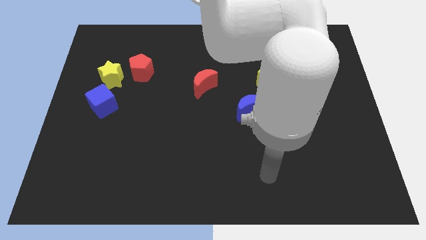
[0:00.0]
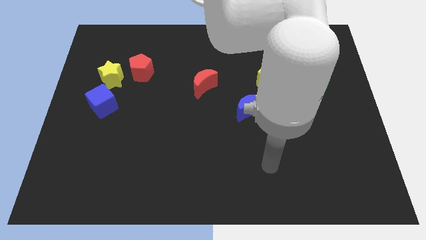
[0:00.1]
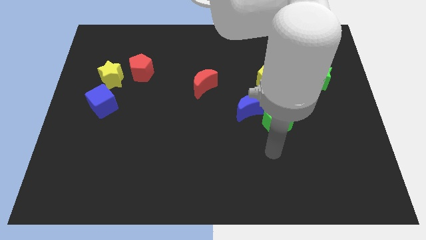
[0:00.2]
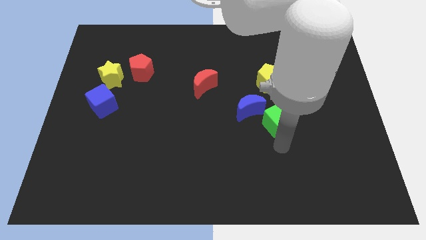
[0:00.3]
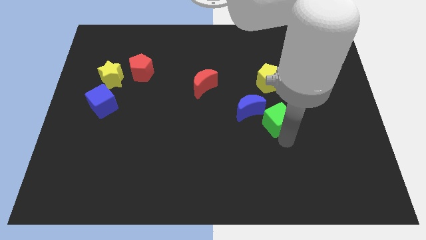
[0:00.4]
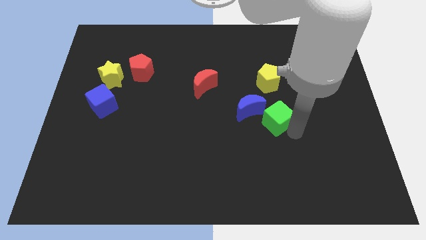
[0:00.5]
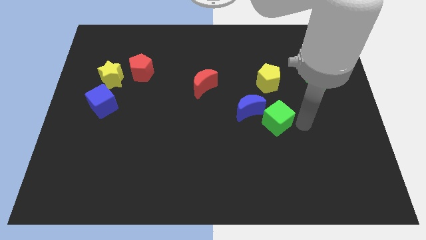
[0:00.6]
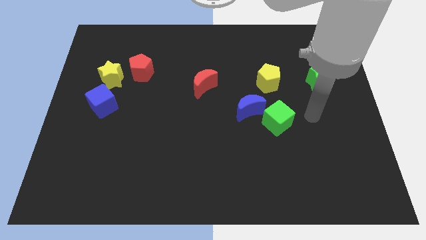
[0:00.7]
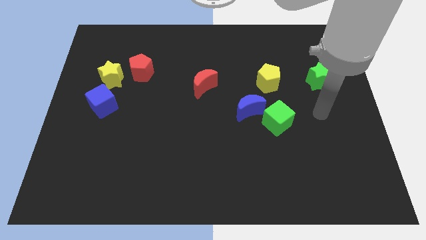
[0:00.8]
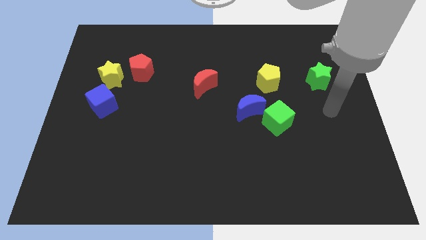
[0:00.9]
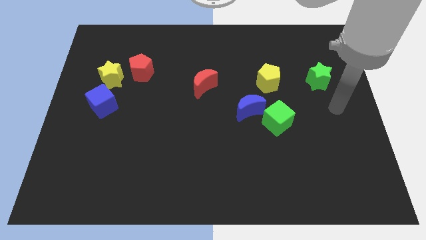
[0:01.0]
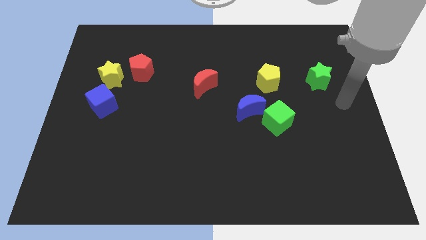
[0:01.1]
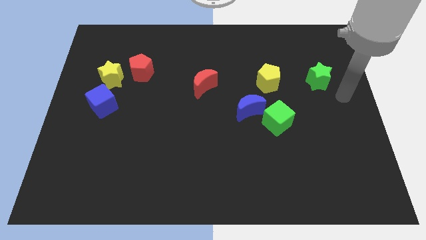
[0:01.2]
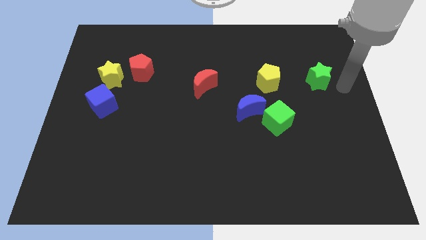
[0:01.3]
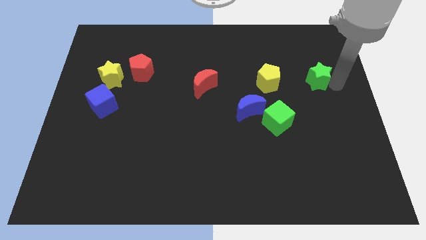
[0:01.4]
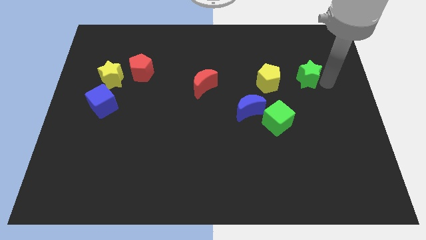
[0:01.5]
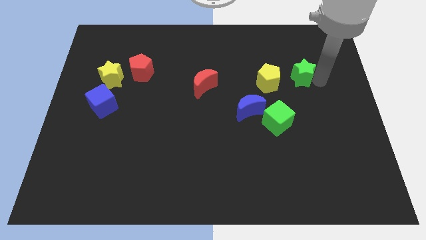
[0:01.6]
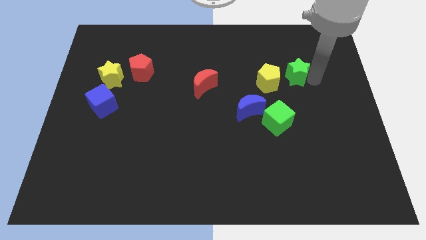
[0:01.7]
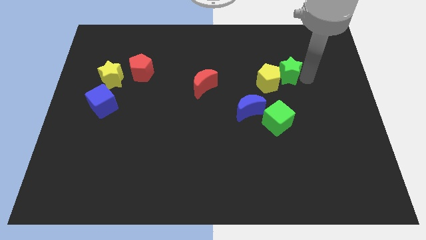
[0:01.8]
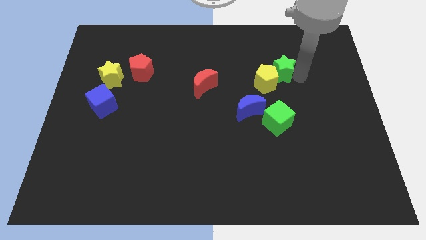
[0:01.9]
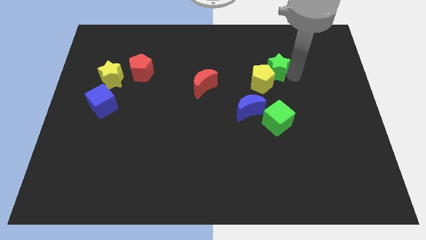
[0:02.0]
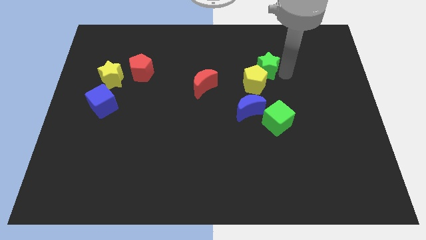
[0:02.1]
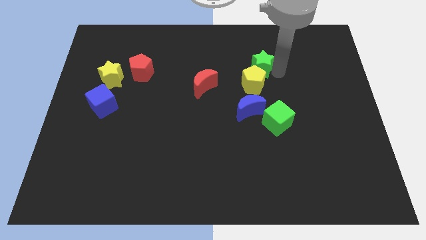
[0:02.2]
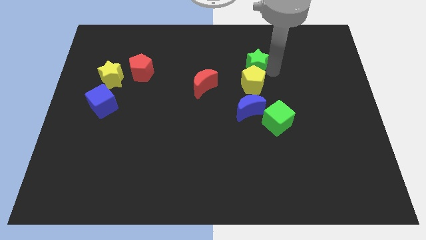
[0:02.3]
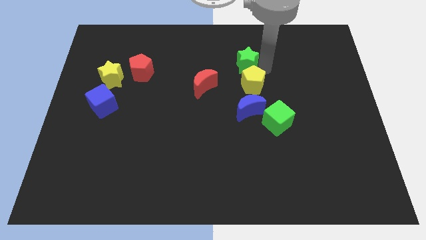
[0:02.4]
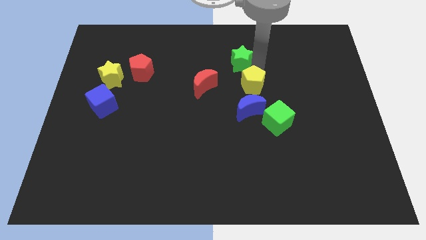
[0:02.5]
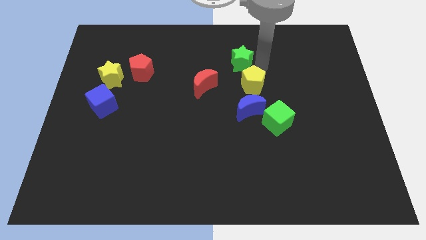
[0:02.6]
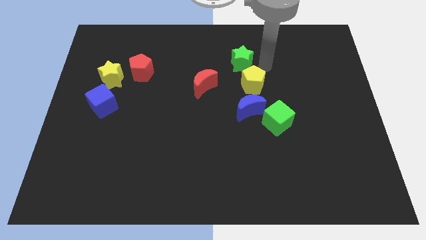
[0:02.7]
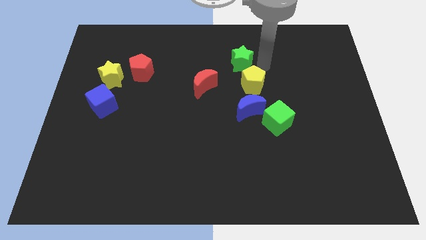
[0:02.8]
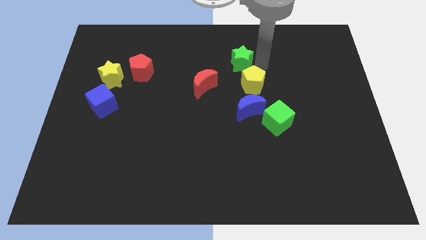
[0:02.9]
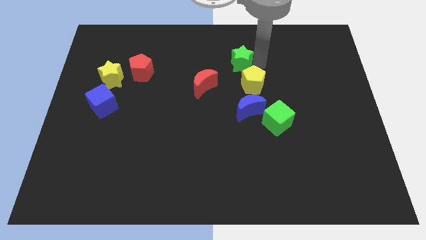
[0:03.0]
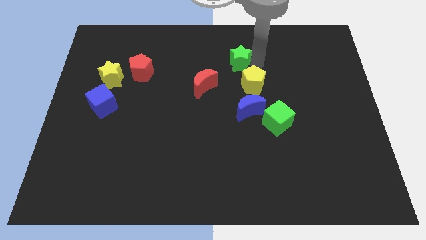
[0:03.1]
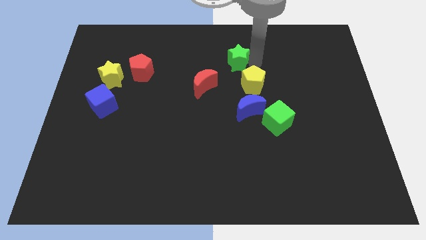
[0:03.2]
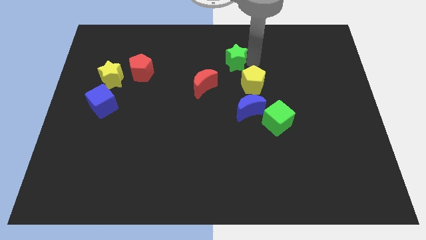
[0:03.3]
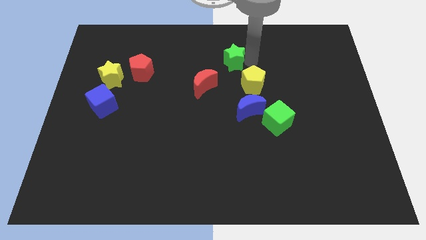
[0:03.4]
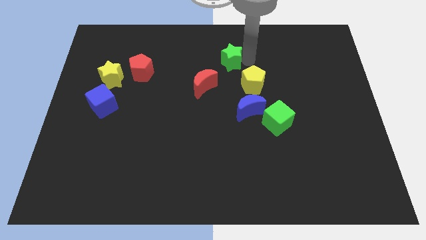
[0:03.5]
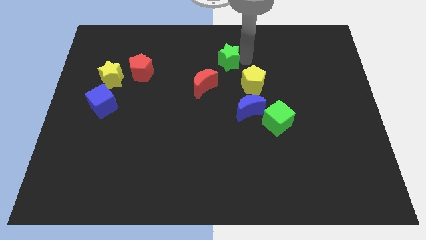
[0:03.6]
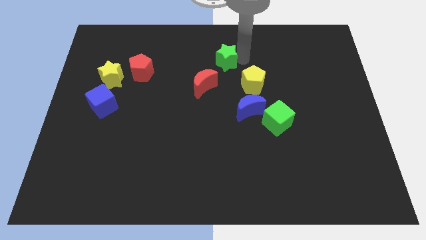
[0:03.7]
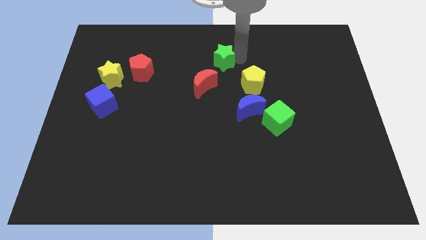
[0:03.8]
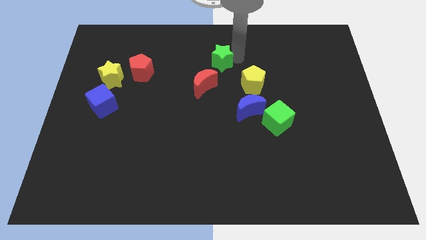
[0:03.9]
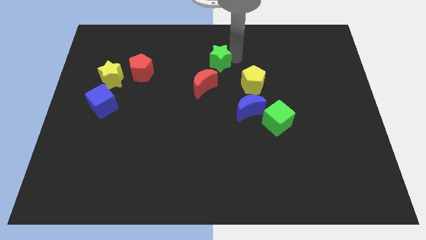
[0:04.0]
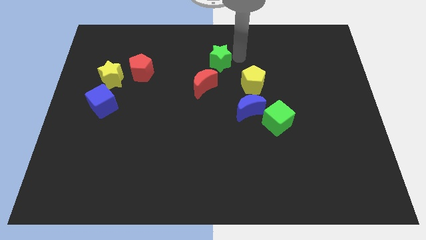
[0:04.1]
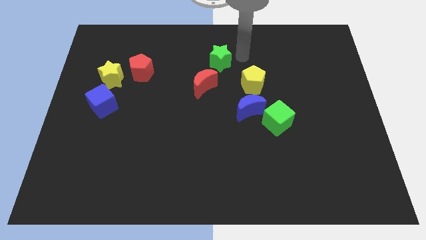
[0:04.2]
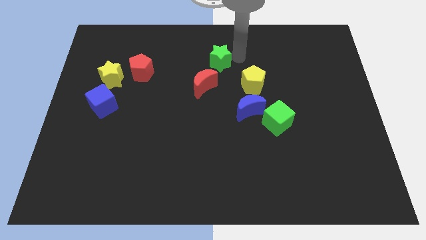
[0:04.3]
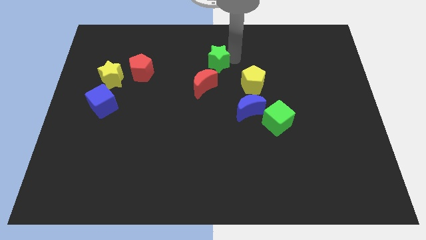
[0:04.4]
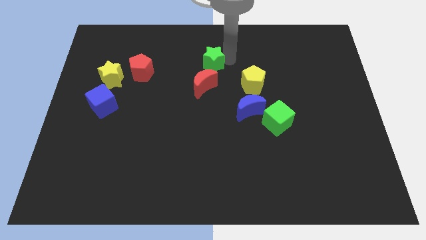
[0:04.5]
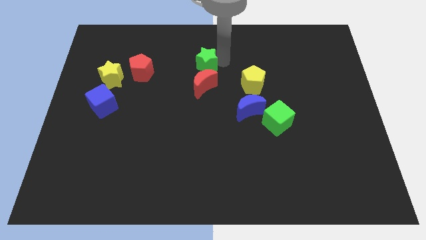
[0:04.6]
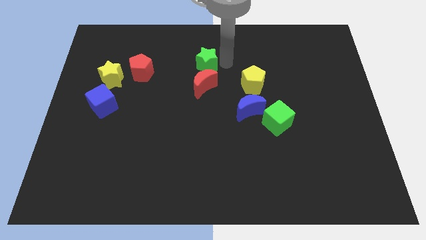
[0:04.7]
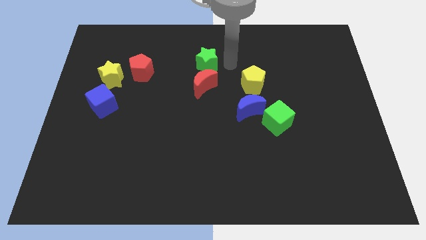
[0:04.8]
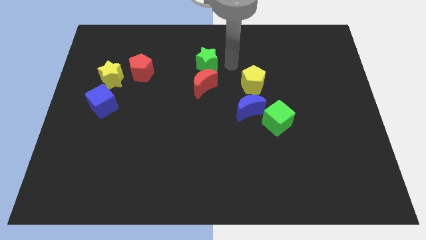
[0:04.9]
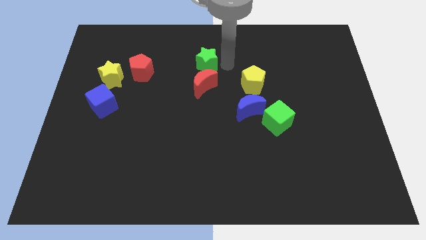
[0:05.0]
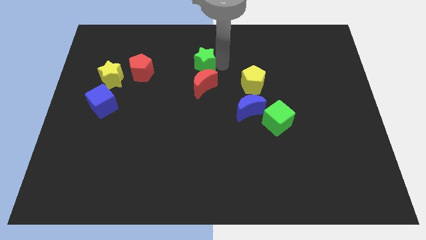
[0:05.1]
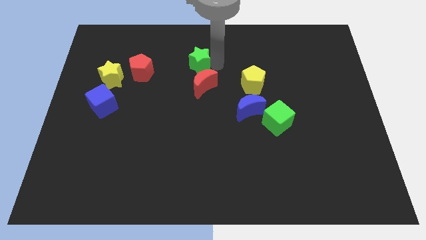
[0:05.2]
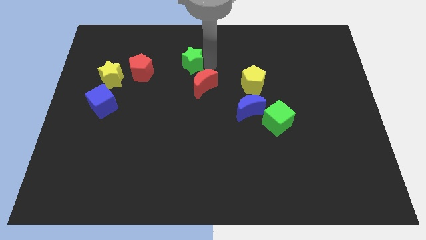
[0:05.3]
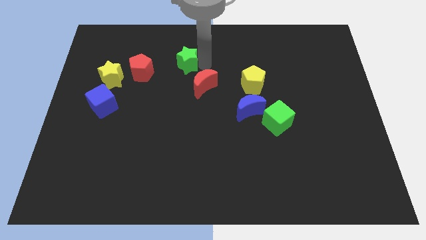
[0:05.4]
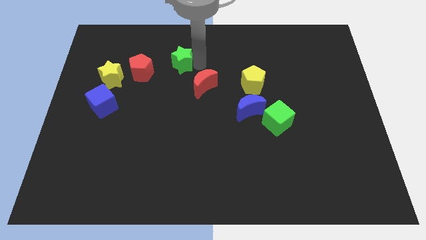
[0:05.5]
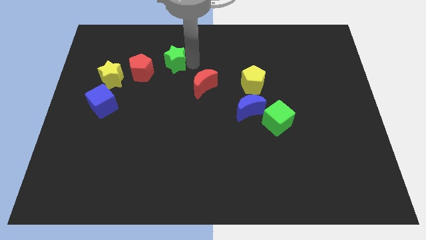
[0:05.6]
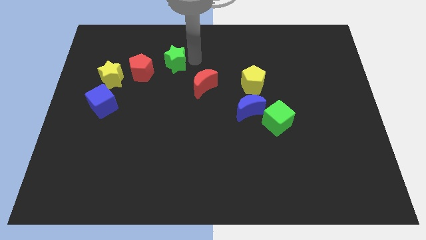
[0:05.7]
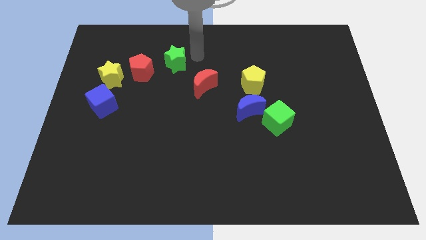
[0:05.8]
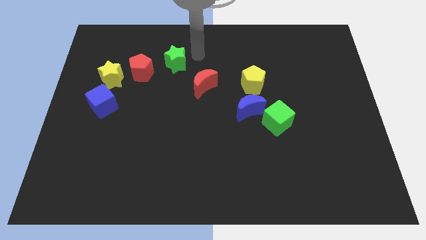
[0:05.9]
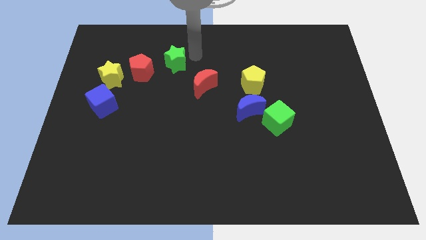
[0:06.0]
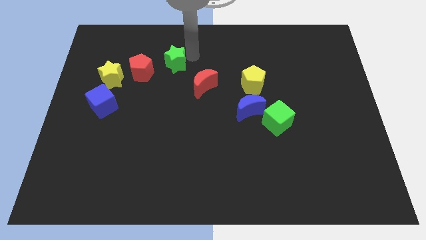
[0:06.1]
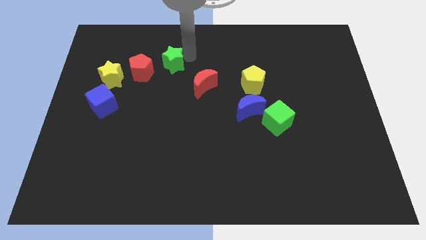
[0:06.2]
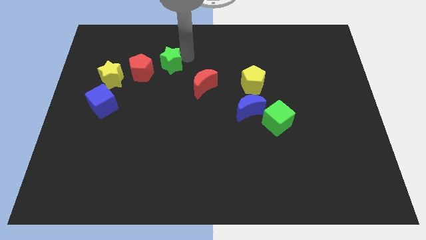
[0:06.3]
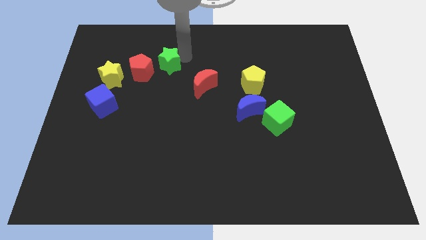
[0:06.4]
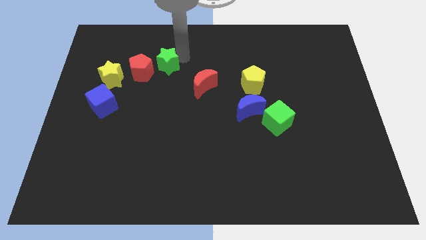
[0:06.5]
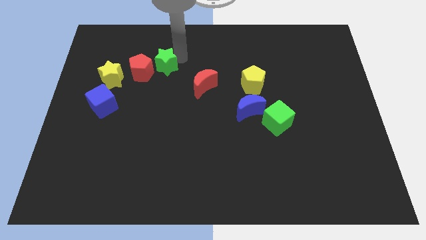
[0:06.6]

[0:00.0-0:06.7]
slide the green star close to the red pentagon
